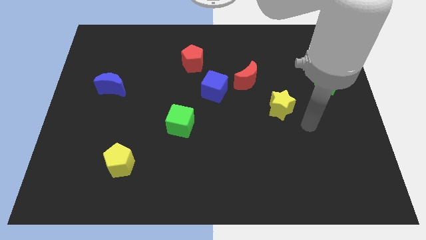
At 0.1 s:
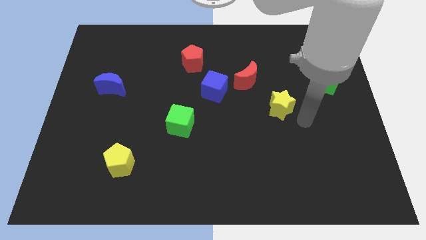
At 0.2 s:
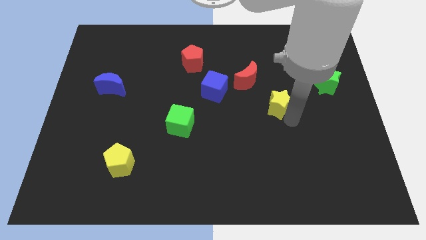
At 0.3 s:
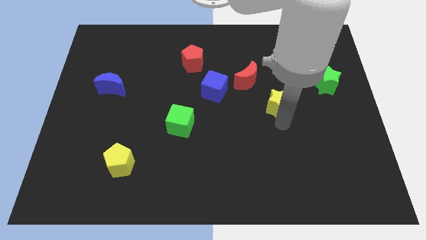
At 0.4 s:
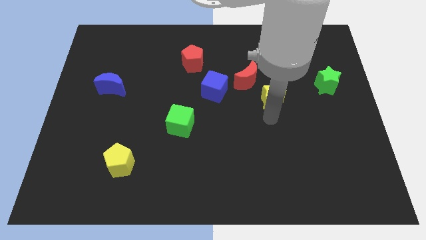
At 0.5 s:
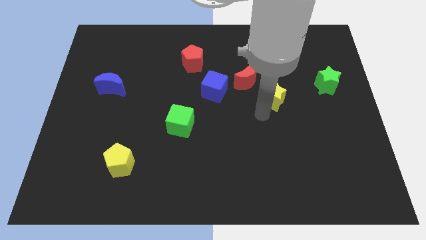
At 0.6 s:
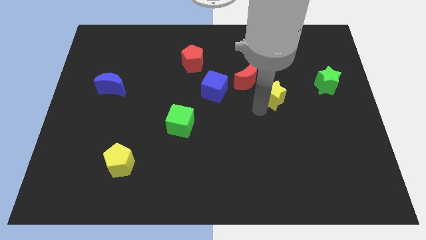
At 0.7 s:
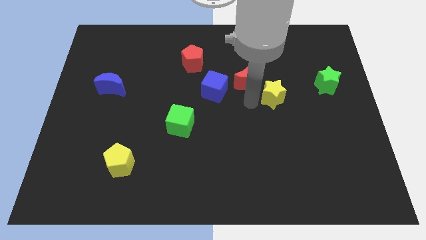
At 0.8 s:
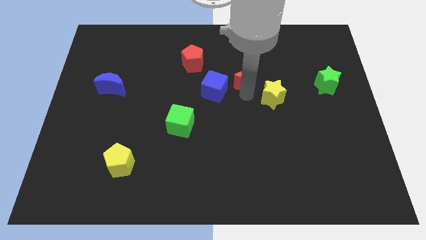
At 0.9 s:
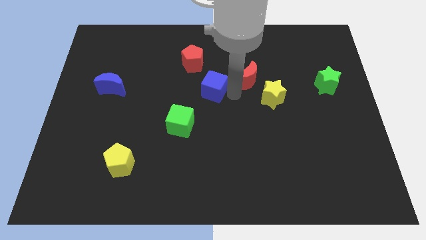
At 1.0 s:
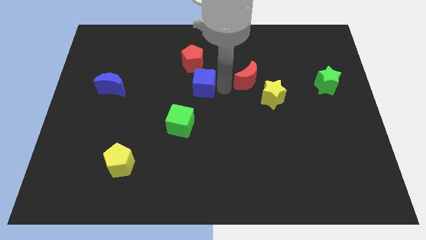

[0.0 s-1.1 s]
pull the red moon apart from the blue cube

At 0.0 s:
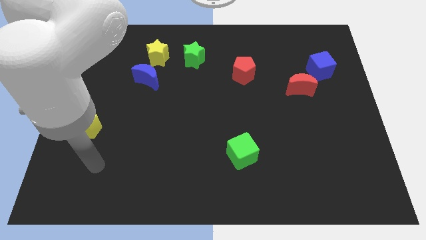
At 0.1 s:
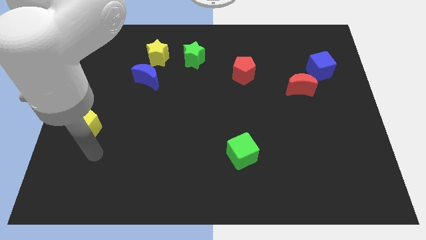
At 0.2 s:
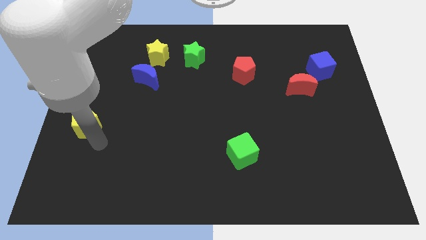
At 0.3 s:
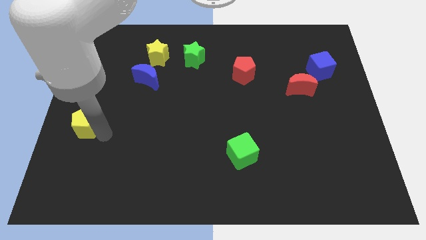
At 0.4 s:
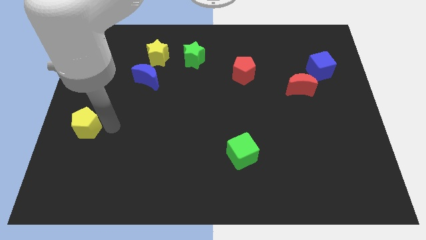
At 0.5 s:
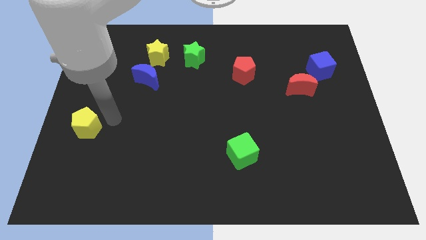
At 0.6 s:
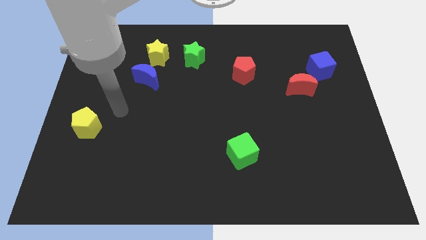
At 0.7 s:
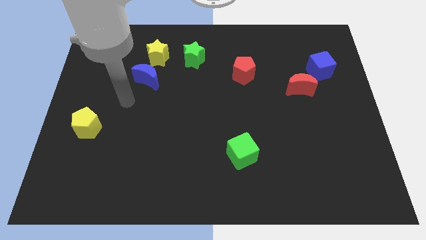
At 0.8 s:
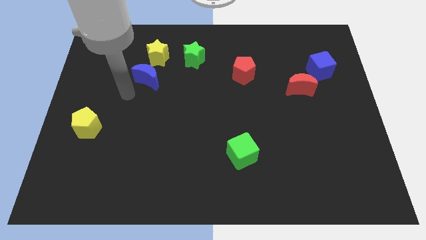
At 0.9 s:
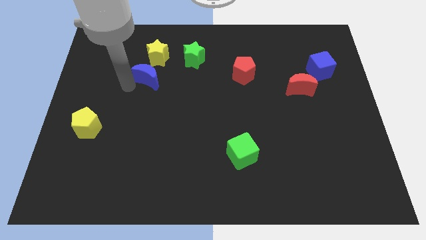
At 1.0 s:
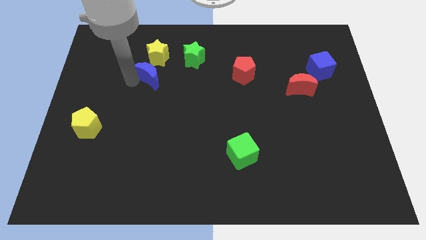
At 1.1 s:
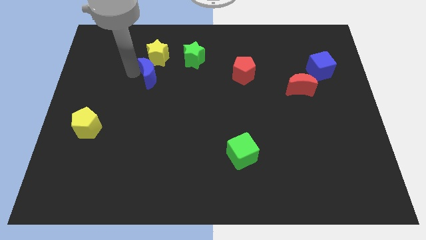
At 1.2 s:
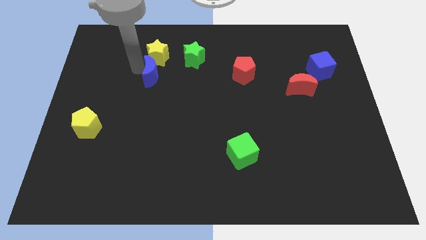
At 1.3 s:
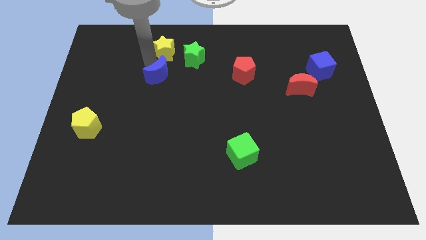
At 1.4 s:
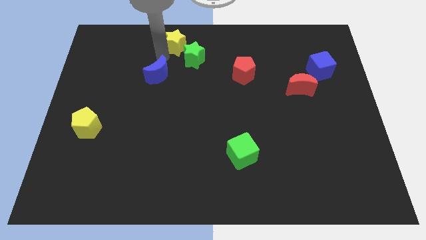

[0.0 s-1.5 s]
pull the blue moon apart from the yellow star

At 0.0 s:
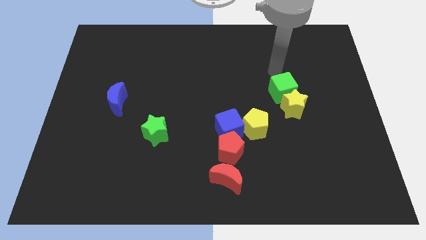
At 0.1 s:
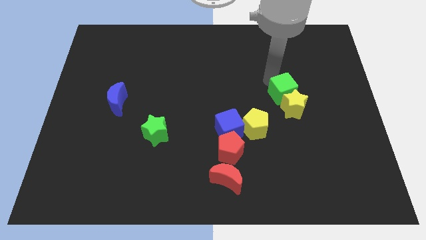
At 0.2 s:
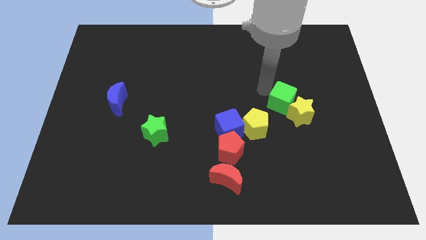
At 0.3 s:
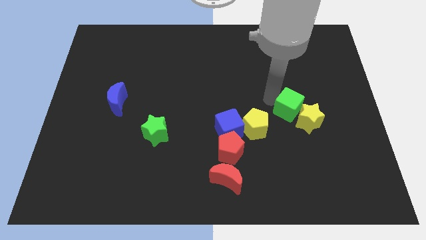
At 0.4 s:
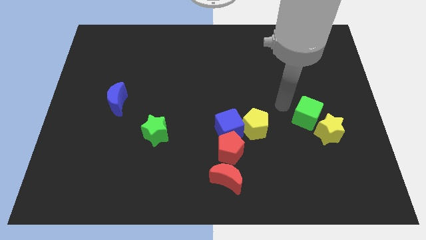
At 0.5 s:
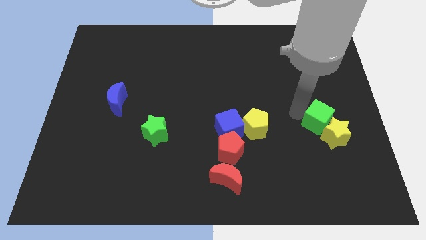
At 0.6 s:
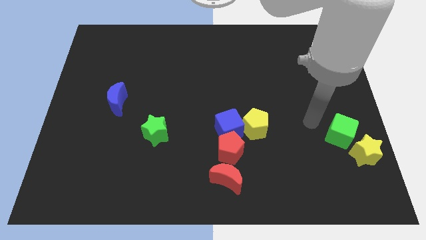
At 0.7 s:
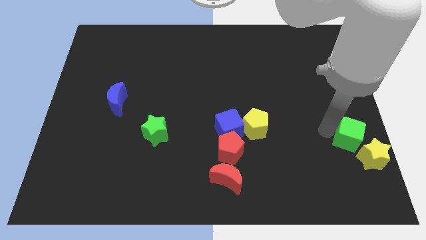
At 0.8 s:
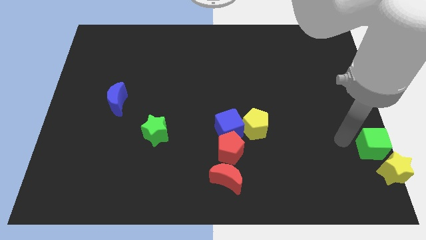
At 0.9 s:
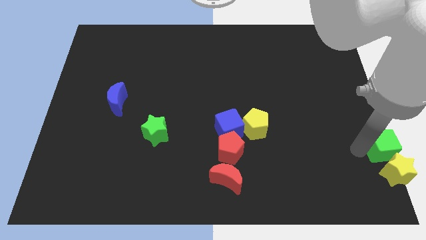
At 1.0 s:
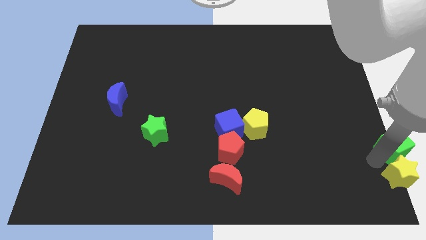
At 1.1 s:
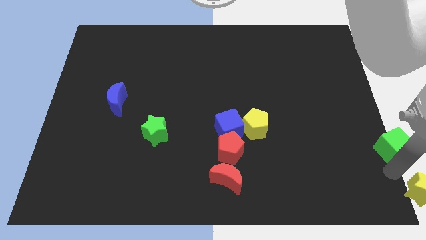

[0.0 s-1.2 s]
separate the green cube from the yellow star

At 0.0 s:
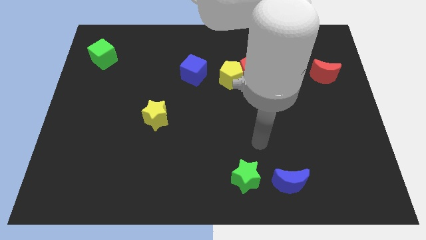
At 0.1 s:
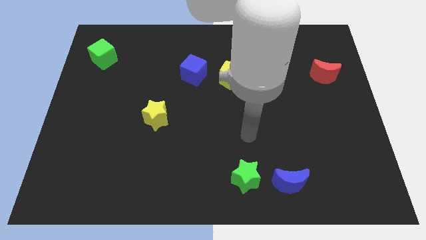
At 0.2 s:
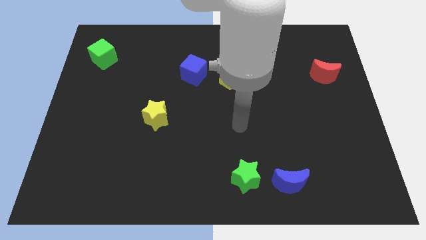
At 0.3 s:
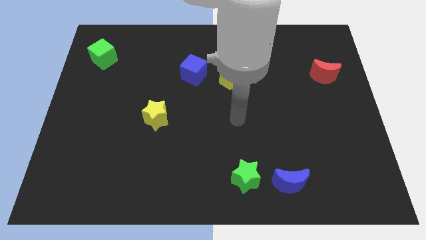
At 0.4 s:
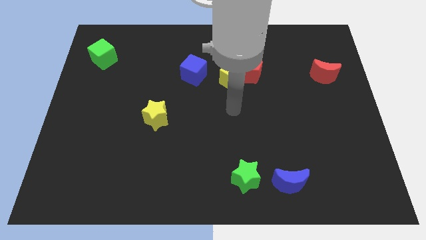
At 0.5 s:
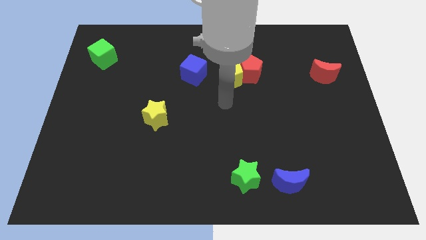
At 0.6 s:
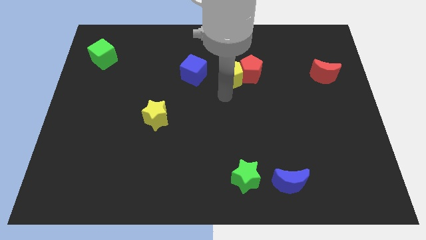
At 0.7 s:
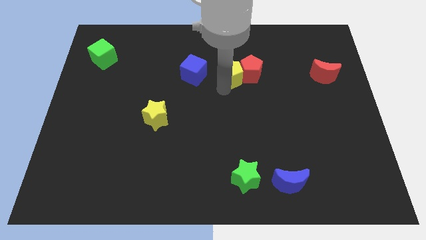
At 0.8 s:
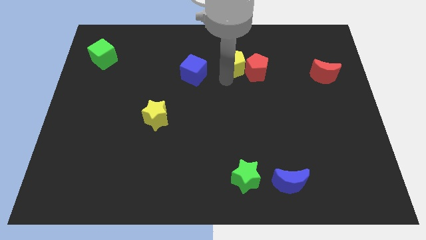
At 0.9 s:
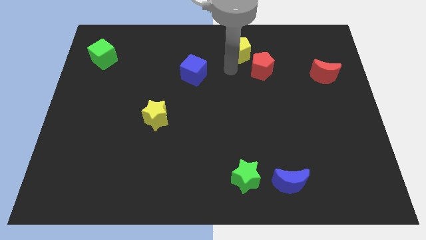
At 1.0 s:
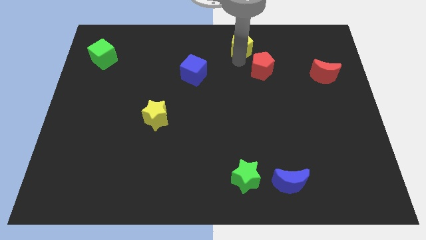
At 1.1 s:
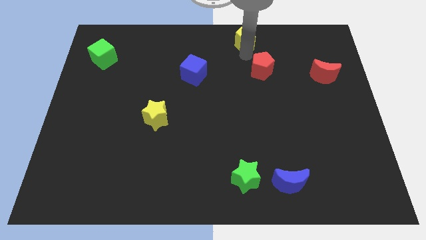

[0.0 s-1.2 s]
move the red pentagon away from the yellow pentagon

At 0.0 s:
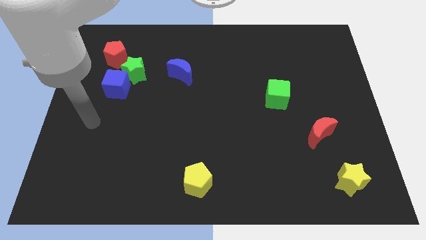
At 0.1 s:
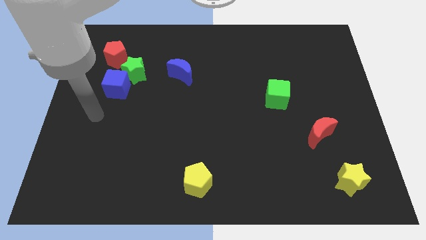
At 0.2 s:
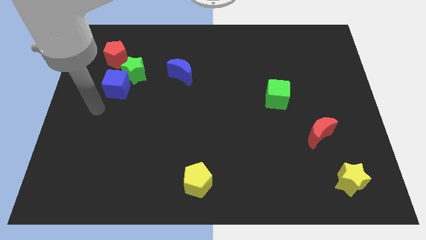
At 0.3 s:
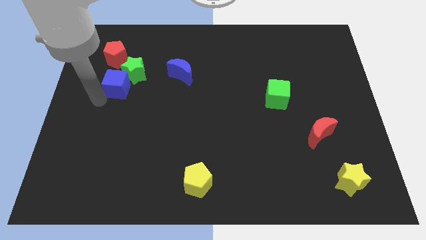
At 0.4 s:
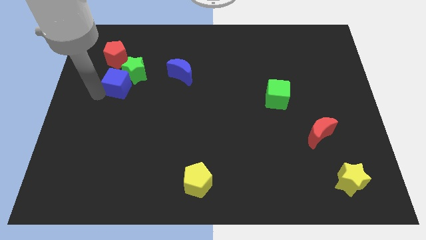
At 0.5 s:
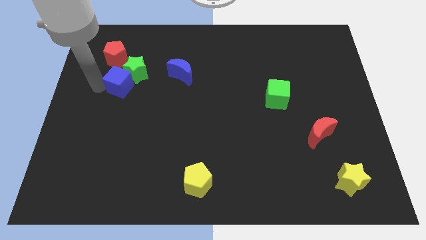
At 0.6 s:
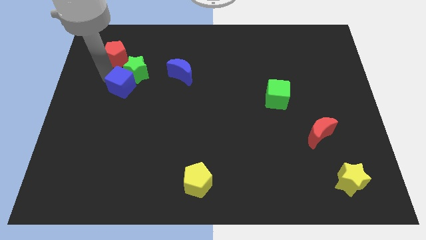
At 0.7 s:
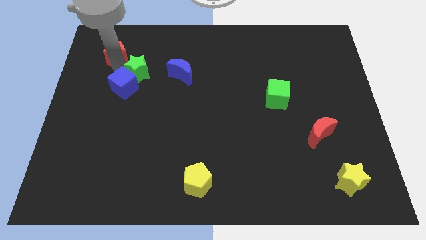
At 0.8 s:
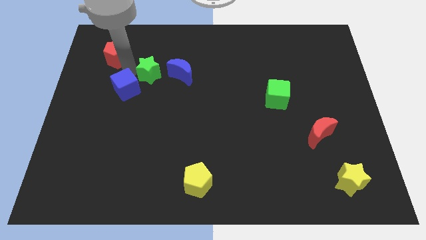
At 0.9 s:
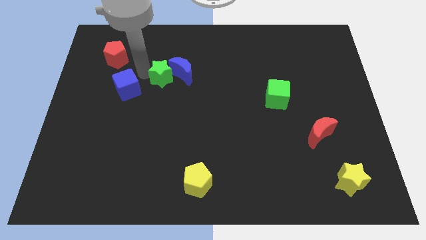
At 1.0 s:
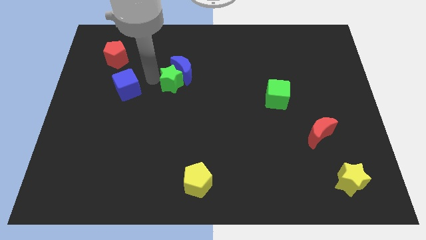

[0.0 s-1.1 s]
pull the blue cube apart from the green star

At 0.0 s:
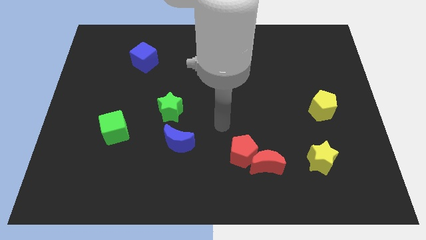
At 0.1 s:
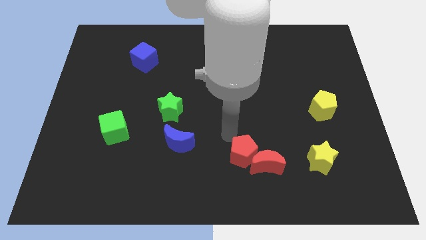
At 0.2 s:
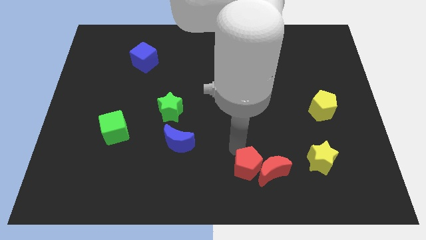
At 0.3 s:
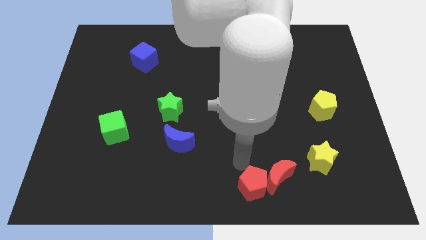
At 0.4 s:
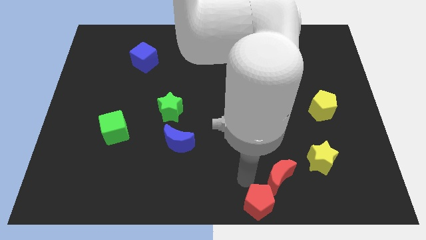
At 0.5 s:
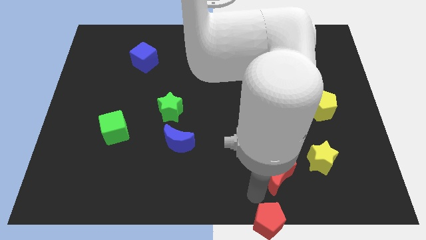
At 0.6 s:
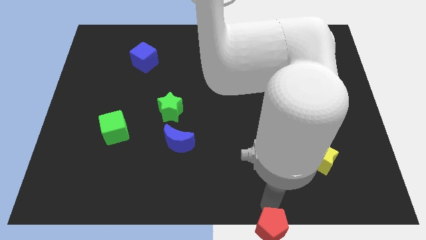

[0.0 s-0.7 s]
separate the red moon from the red pentagon

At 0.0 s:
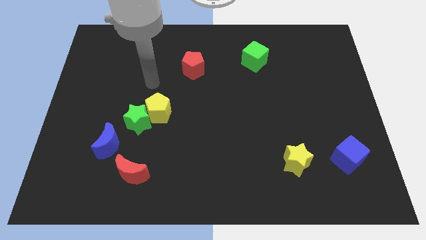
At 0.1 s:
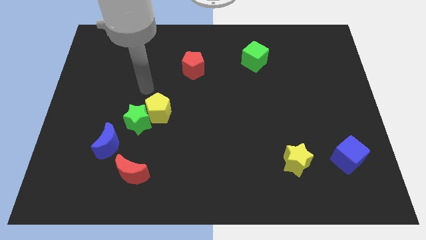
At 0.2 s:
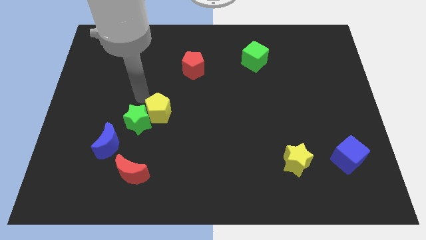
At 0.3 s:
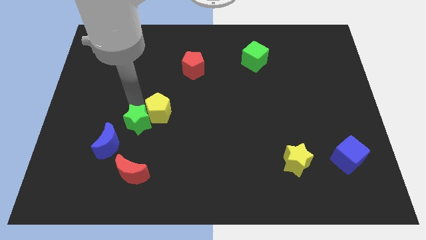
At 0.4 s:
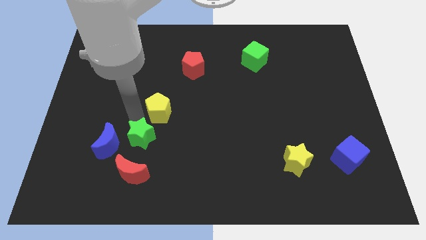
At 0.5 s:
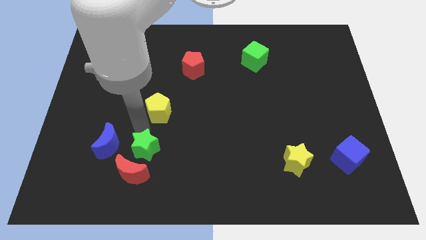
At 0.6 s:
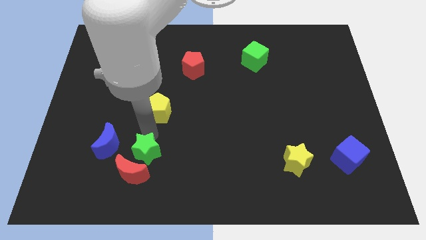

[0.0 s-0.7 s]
move the yellow pentagon away from the green star

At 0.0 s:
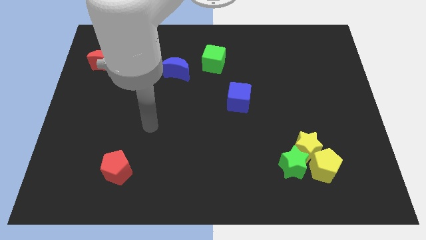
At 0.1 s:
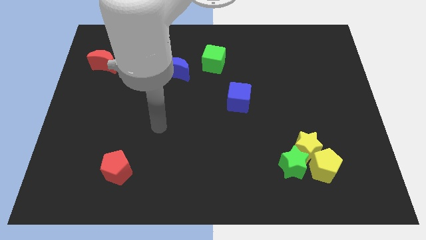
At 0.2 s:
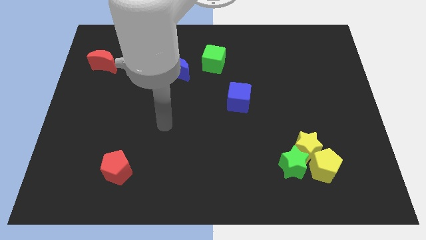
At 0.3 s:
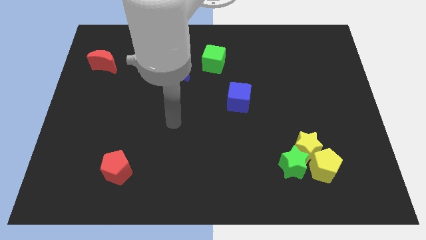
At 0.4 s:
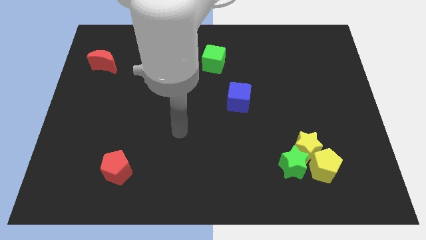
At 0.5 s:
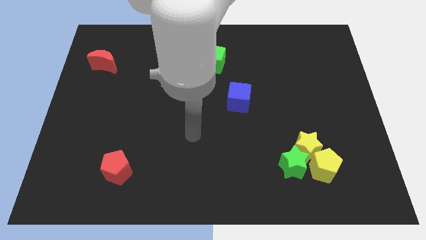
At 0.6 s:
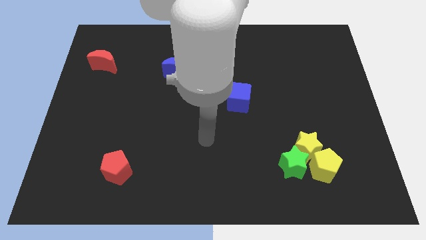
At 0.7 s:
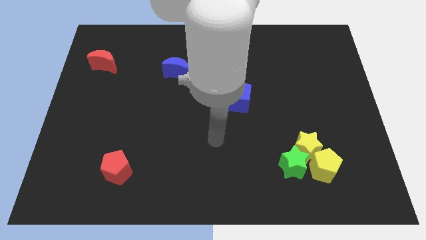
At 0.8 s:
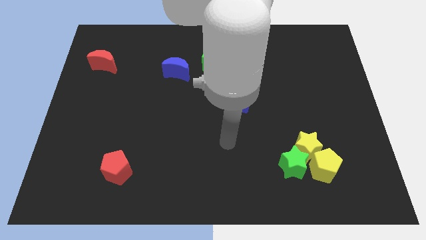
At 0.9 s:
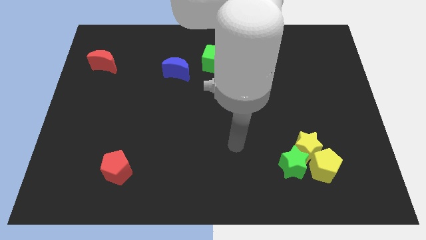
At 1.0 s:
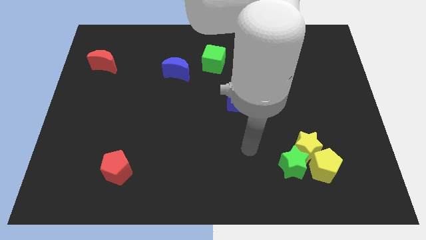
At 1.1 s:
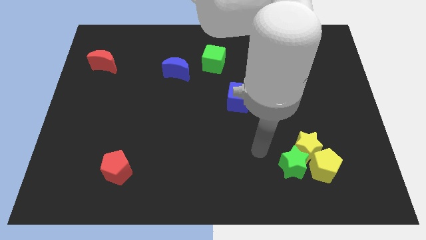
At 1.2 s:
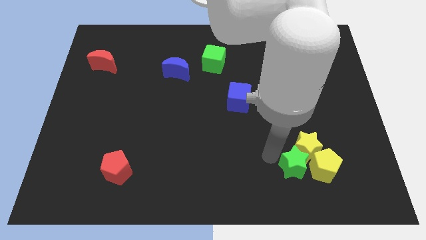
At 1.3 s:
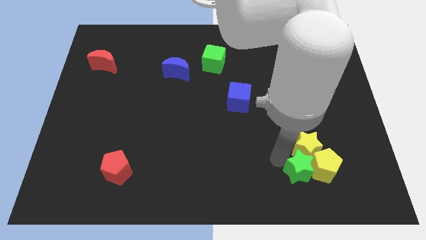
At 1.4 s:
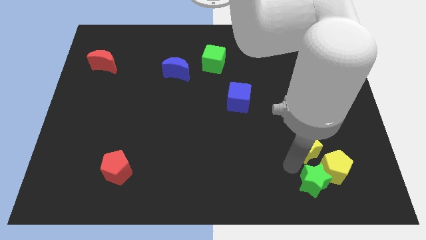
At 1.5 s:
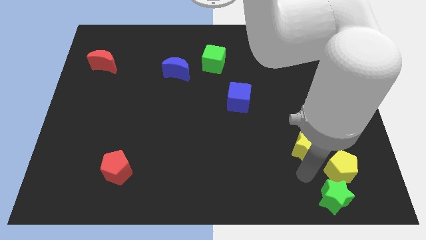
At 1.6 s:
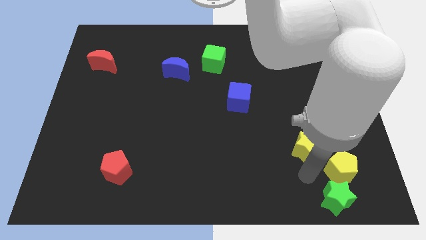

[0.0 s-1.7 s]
move the yellow star away from the green star and yellow pentagon
